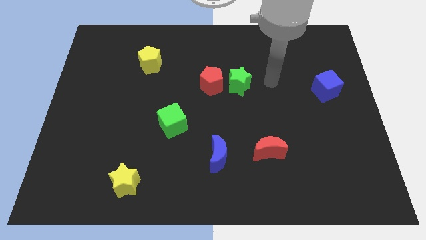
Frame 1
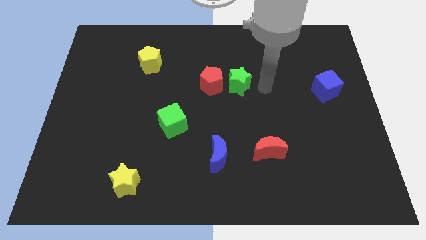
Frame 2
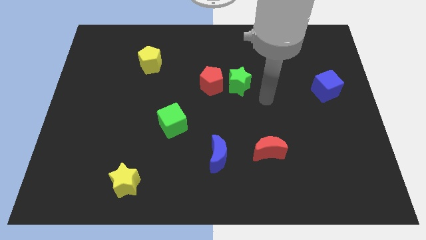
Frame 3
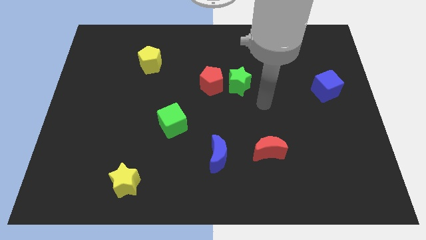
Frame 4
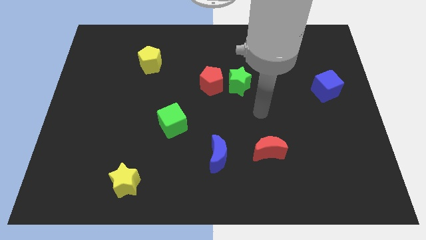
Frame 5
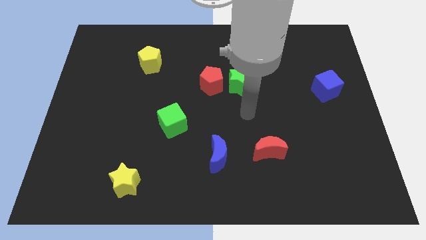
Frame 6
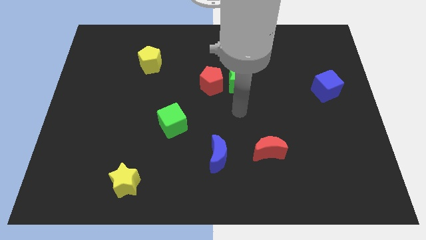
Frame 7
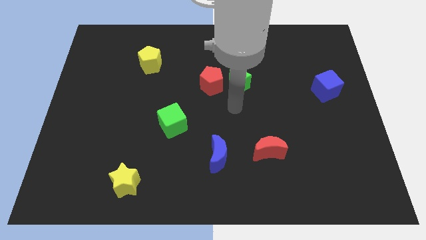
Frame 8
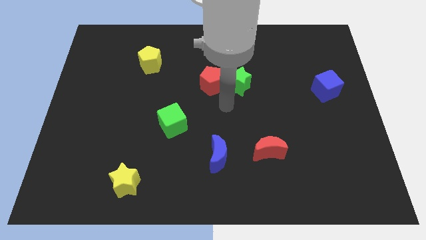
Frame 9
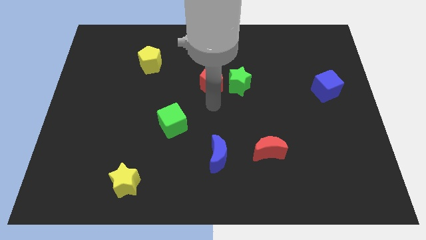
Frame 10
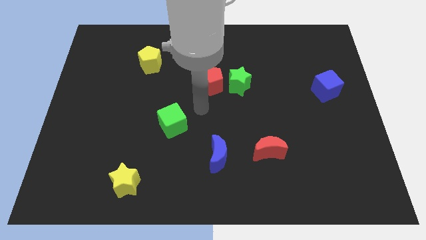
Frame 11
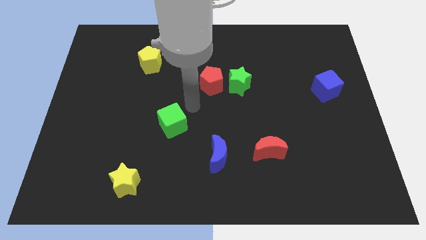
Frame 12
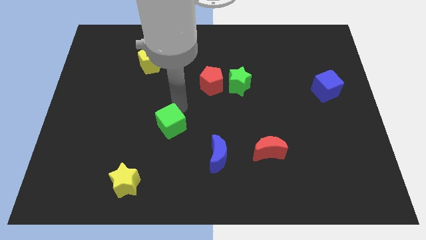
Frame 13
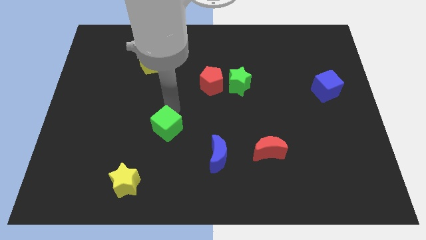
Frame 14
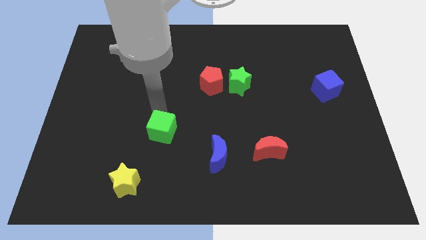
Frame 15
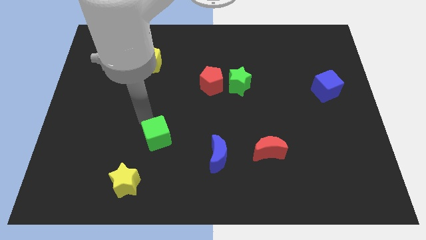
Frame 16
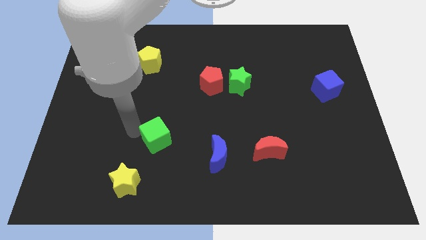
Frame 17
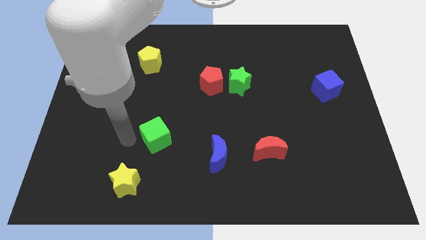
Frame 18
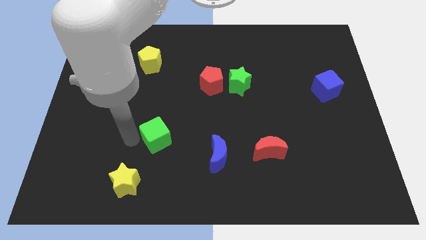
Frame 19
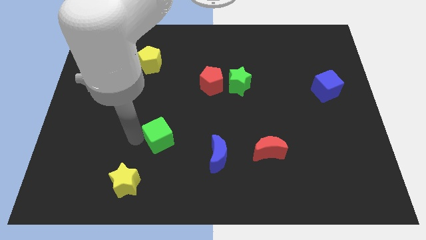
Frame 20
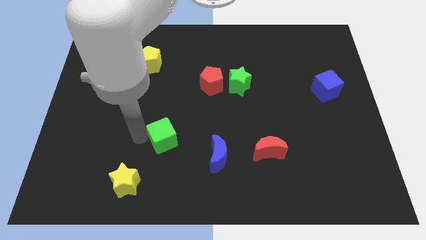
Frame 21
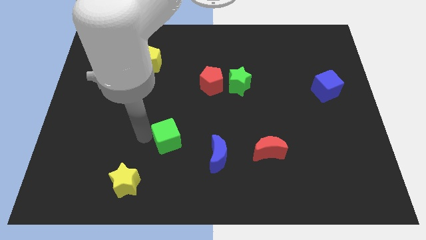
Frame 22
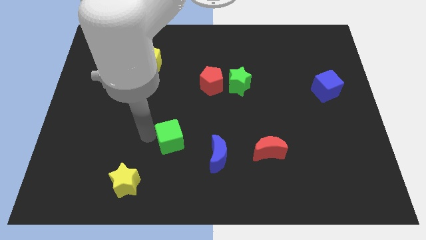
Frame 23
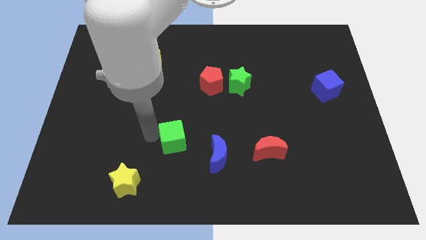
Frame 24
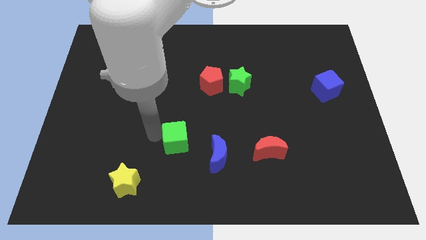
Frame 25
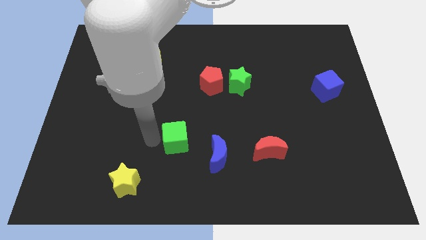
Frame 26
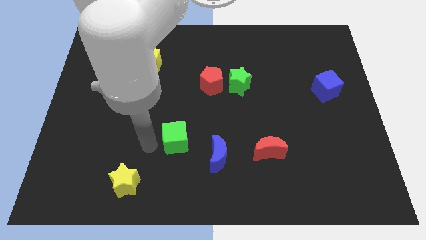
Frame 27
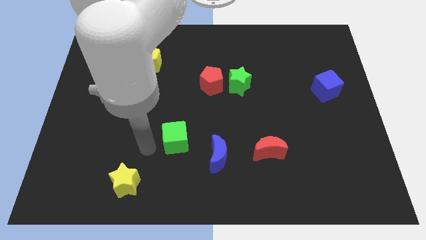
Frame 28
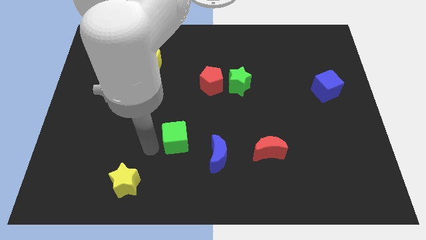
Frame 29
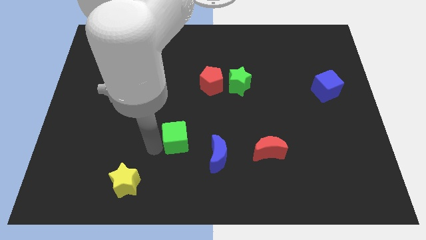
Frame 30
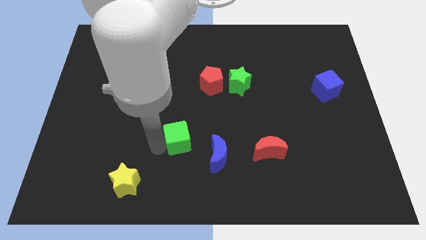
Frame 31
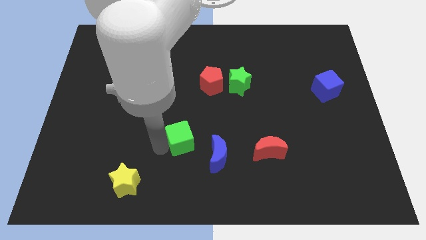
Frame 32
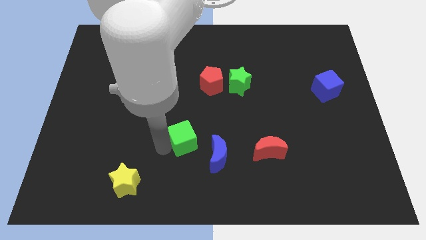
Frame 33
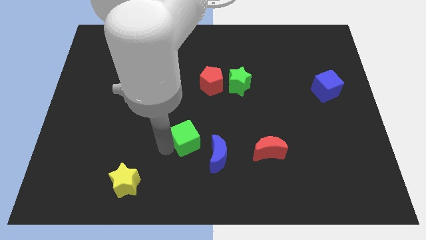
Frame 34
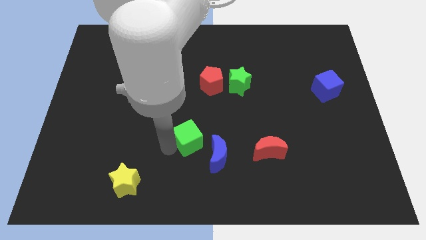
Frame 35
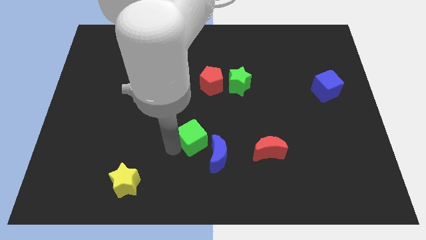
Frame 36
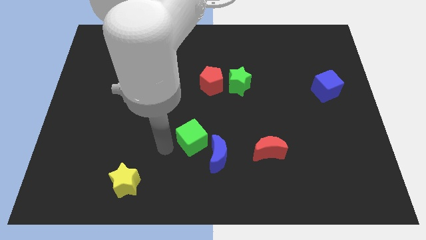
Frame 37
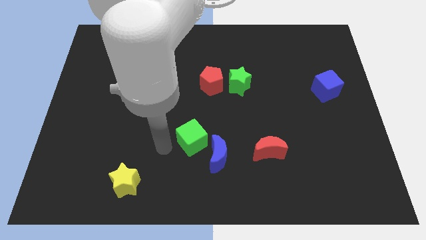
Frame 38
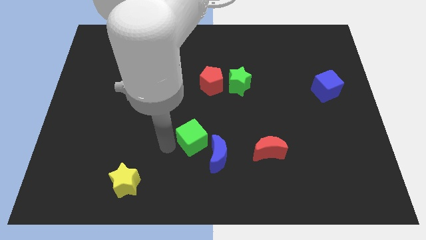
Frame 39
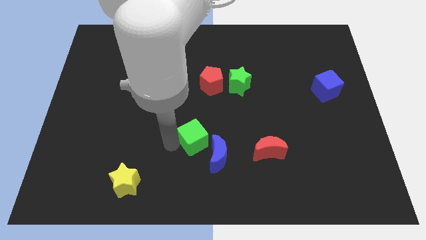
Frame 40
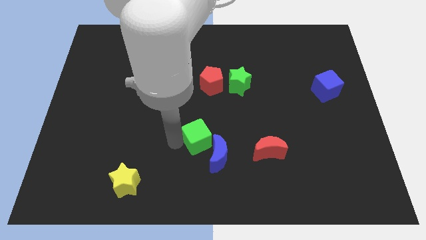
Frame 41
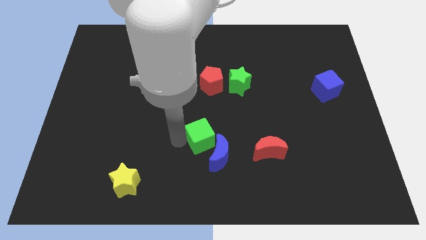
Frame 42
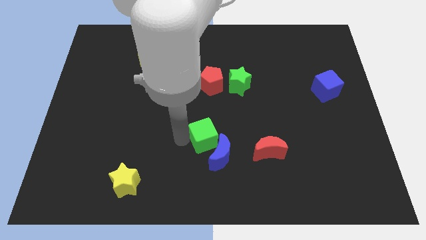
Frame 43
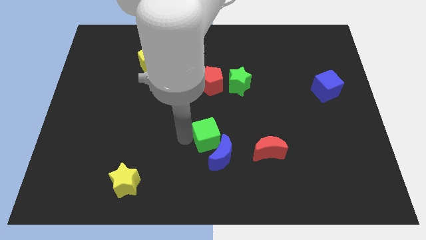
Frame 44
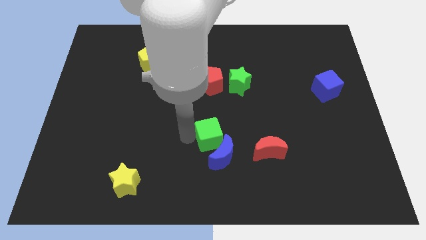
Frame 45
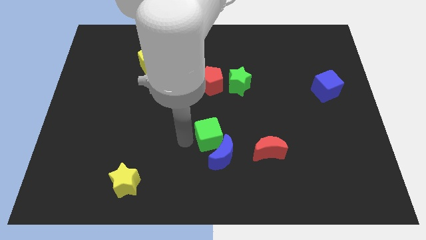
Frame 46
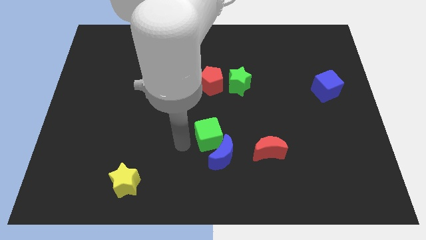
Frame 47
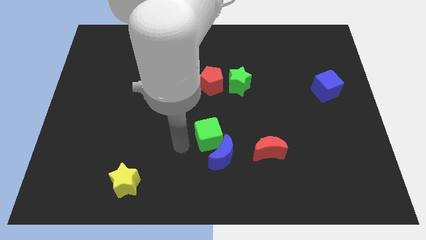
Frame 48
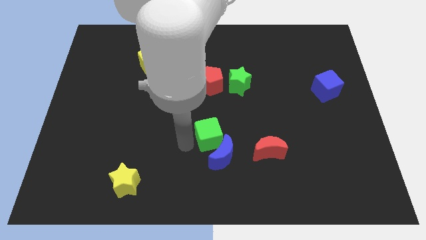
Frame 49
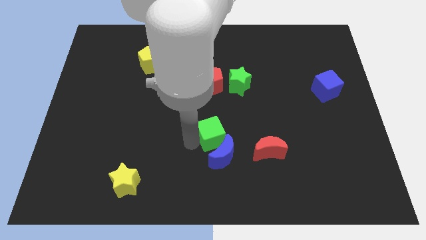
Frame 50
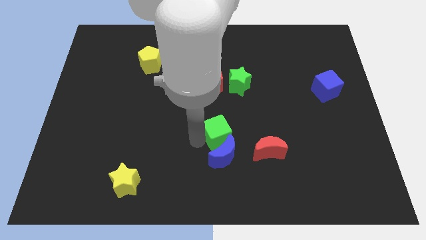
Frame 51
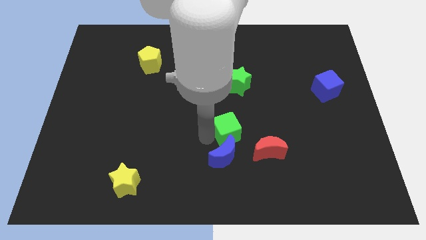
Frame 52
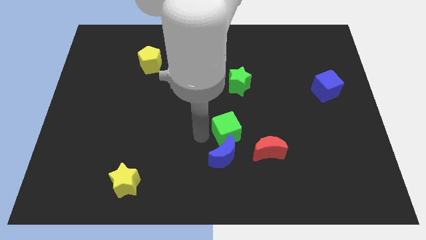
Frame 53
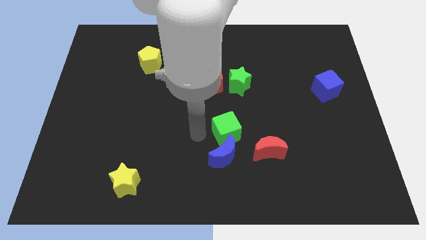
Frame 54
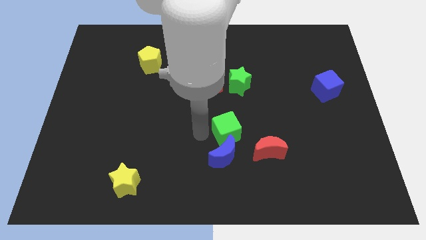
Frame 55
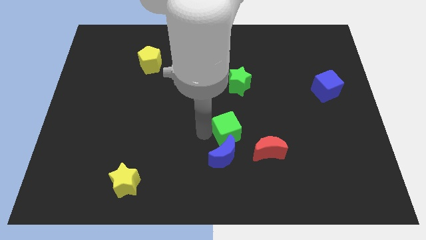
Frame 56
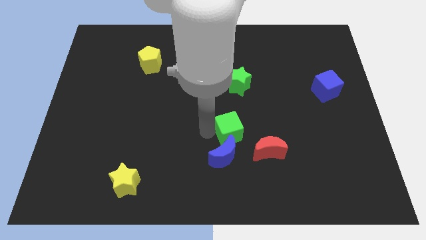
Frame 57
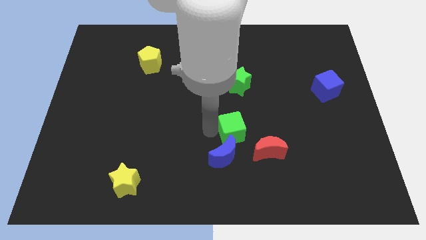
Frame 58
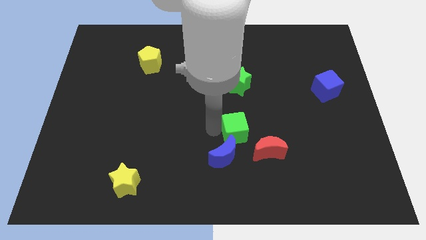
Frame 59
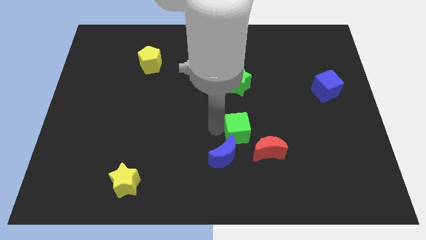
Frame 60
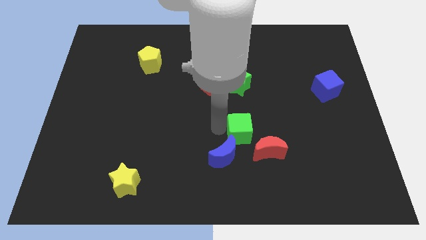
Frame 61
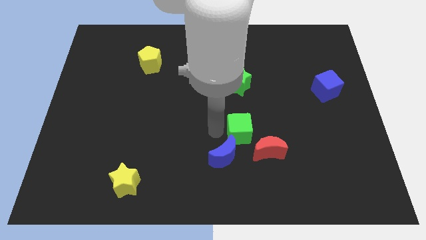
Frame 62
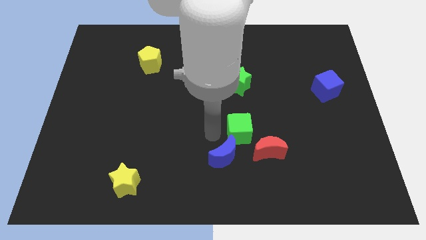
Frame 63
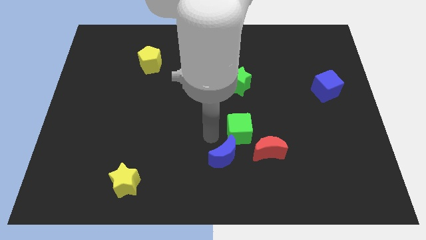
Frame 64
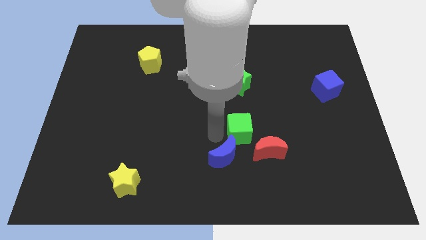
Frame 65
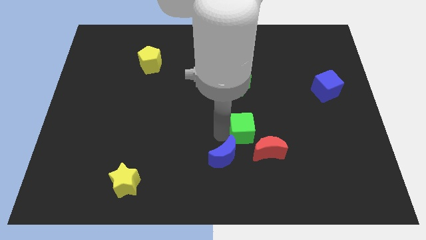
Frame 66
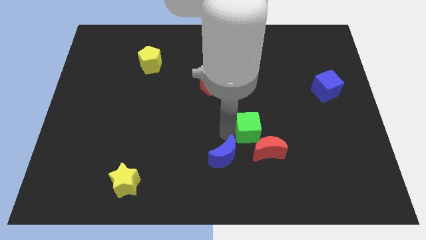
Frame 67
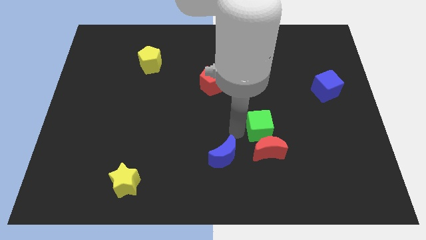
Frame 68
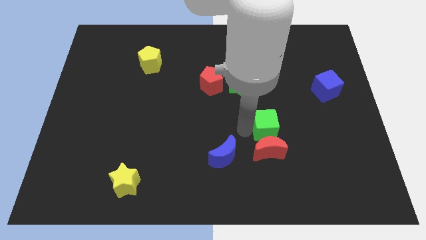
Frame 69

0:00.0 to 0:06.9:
slide the green cube right

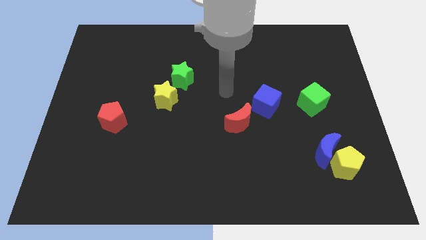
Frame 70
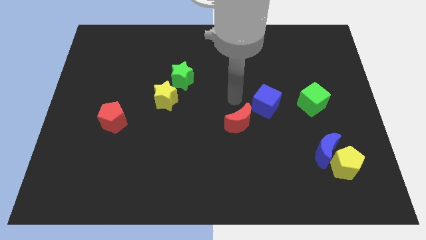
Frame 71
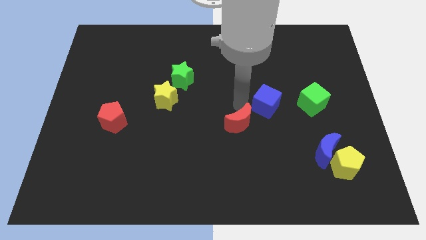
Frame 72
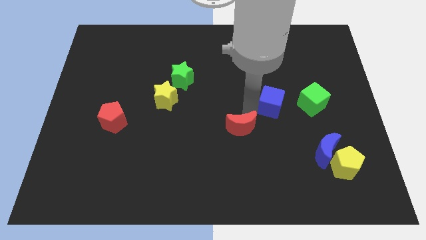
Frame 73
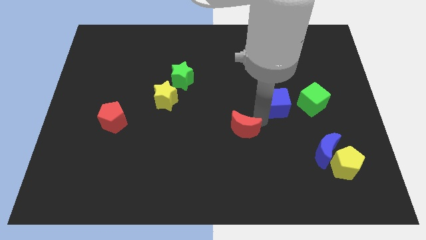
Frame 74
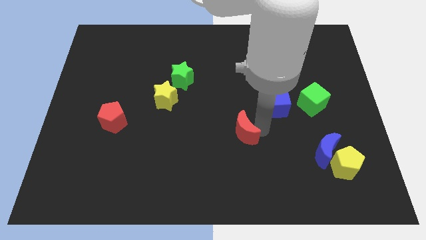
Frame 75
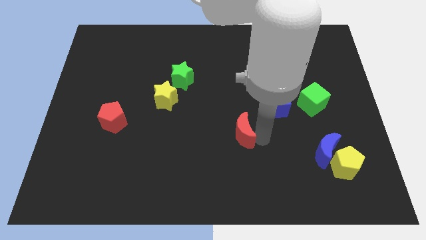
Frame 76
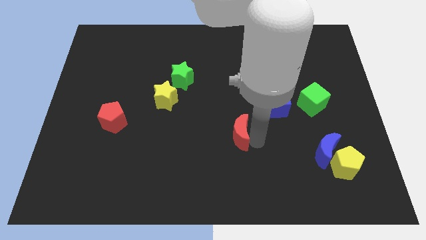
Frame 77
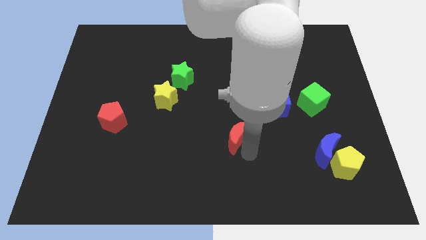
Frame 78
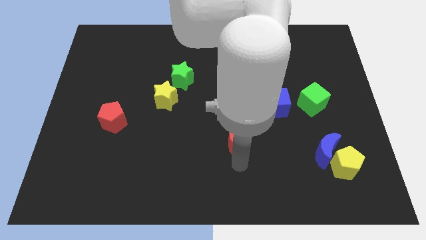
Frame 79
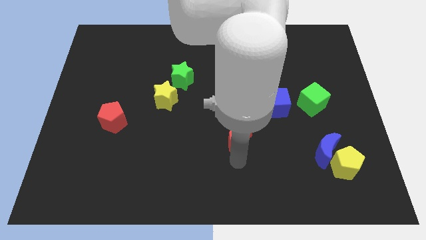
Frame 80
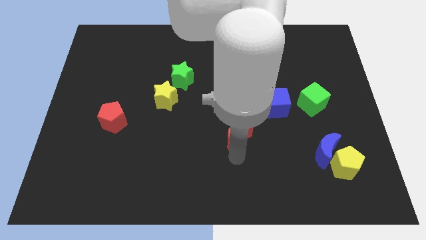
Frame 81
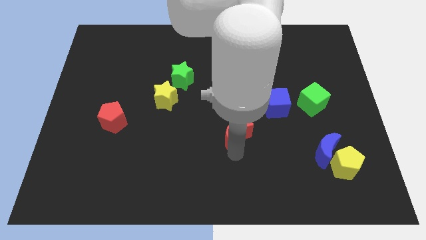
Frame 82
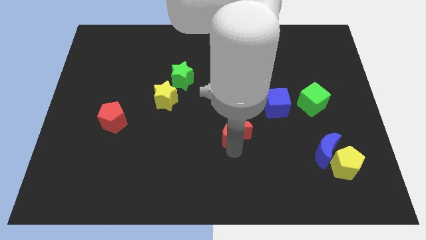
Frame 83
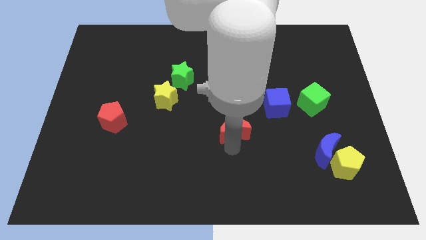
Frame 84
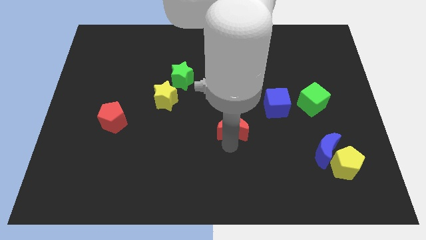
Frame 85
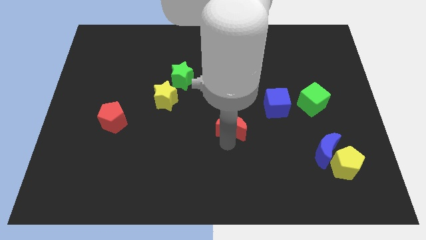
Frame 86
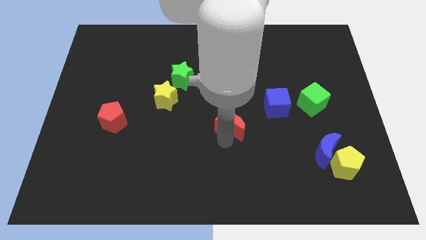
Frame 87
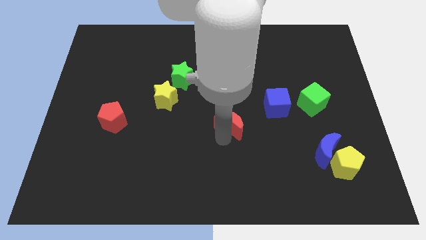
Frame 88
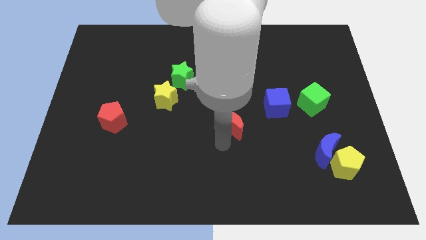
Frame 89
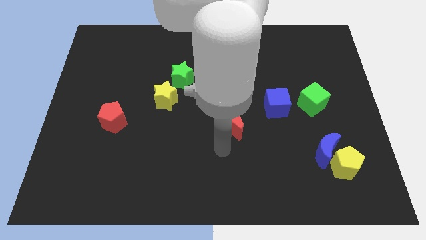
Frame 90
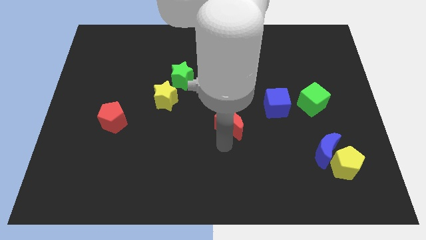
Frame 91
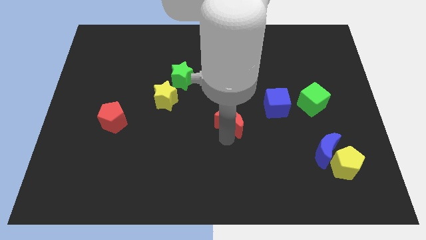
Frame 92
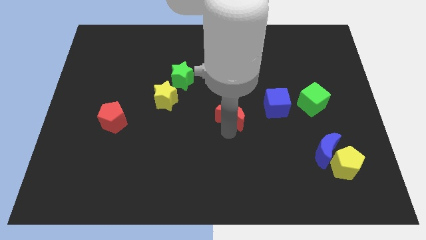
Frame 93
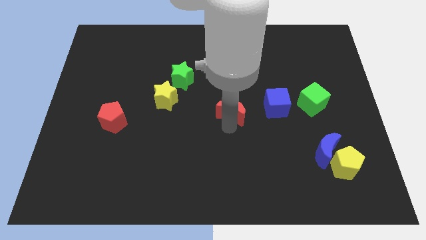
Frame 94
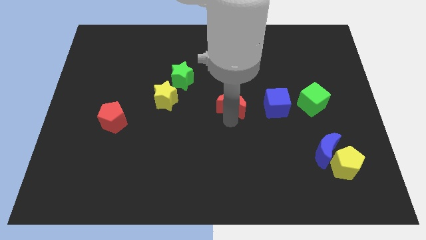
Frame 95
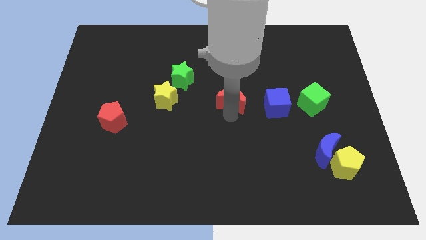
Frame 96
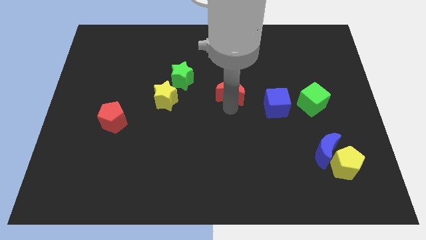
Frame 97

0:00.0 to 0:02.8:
slightly move the red moon upwards
